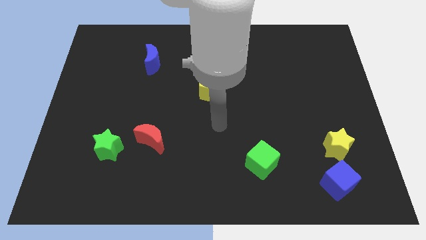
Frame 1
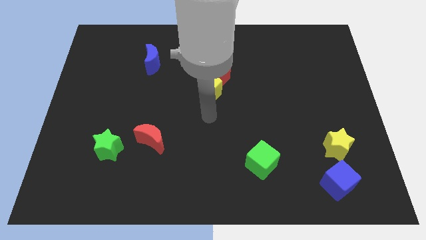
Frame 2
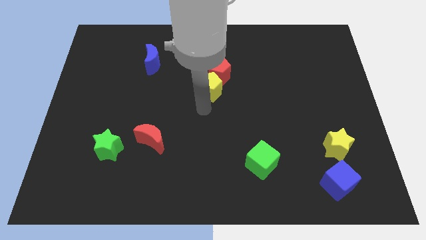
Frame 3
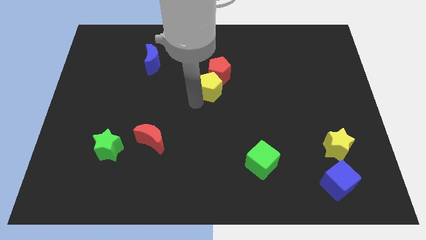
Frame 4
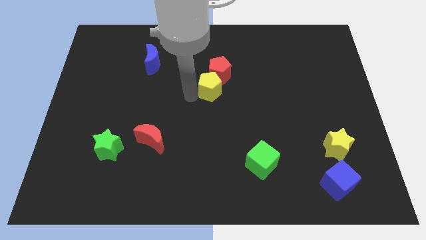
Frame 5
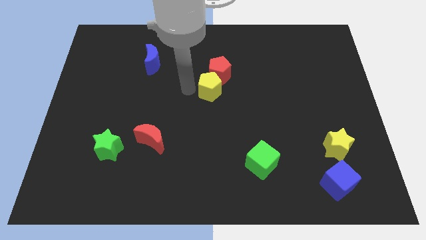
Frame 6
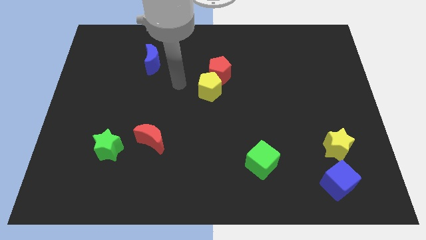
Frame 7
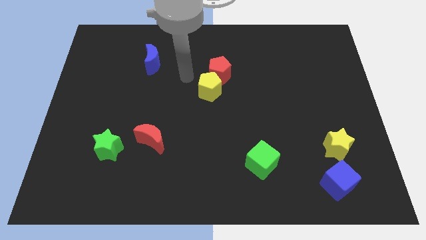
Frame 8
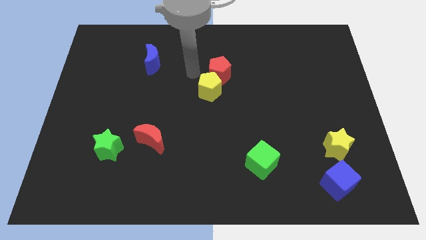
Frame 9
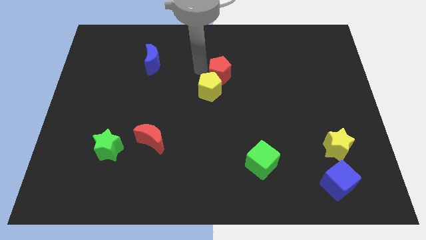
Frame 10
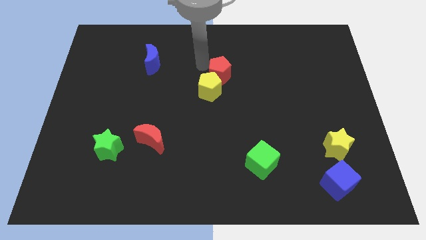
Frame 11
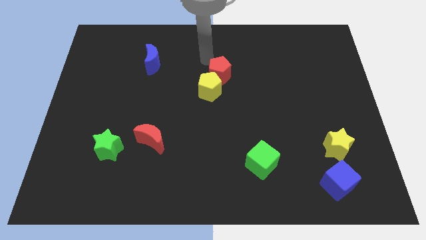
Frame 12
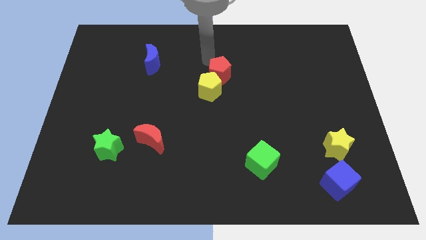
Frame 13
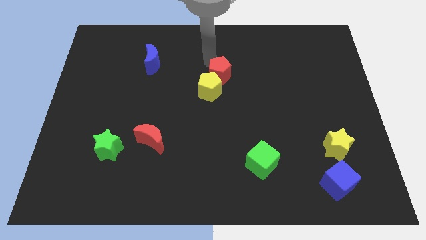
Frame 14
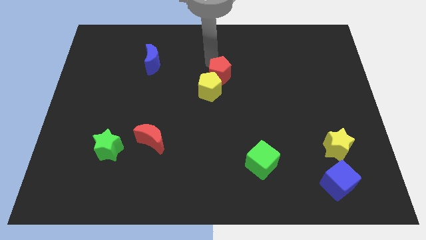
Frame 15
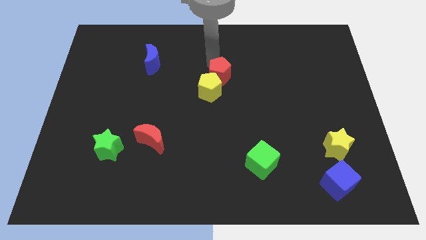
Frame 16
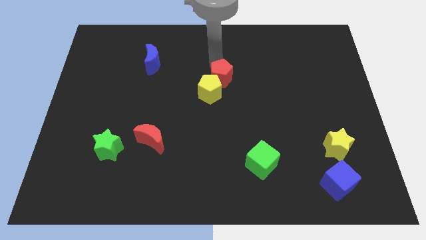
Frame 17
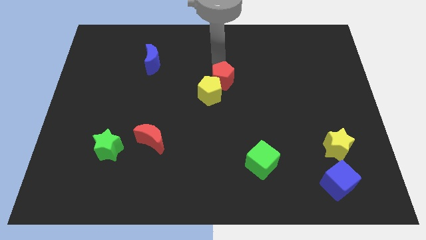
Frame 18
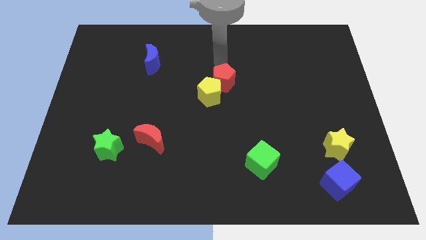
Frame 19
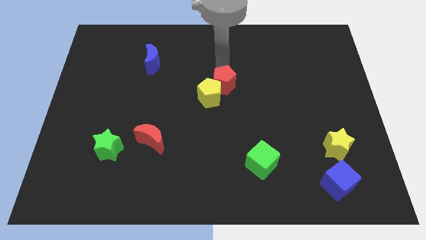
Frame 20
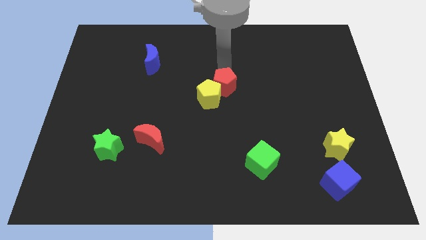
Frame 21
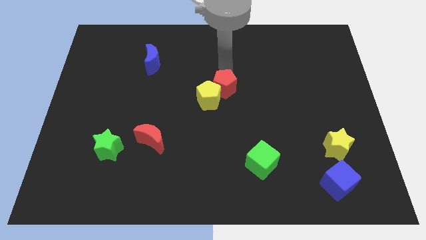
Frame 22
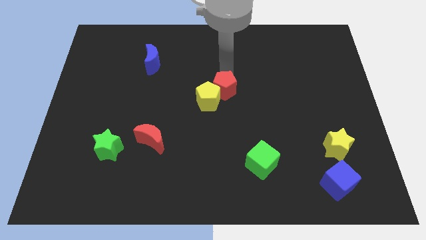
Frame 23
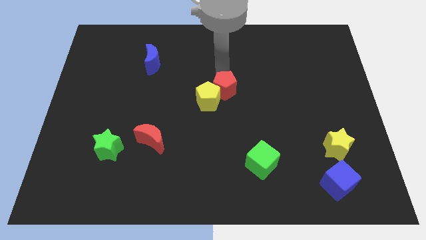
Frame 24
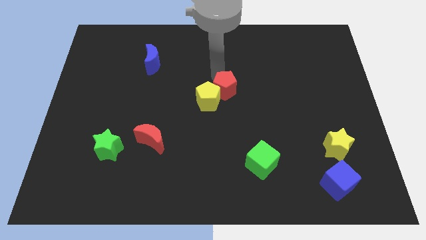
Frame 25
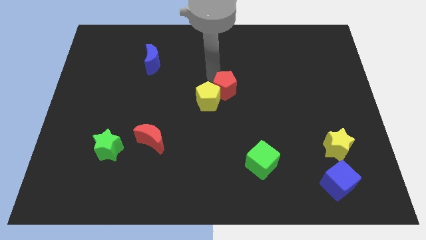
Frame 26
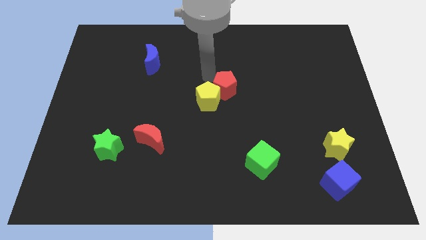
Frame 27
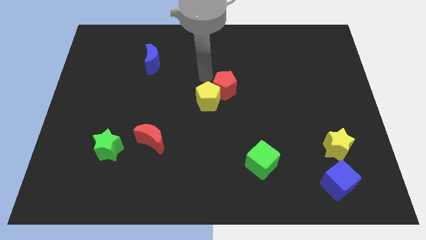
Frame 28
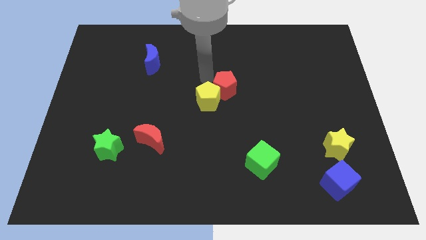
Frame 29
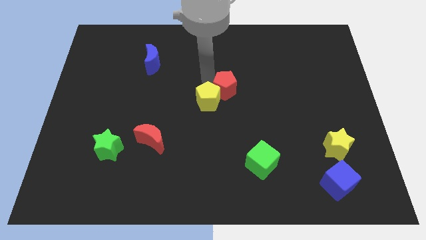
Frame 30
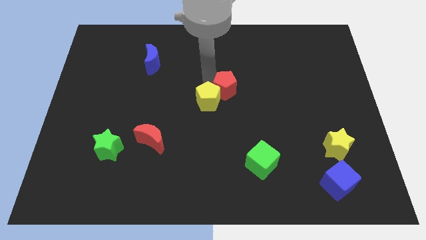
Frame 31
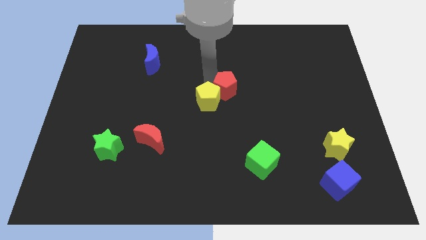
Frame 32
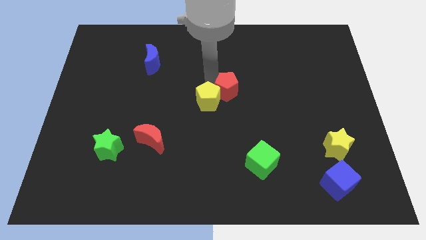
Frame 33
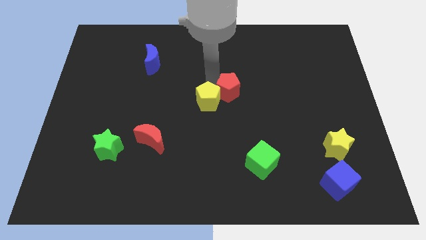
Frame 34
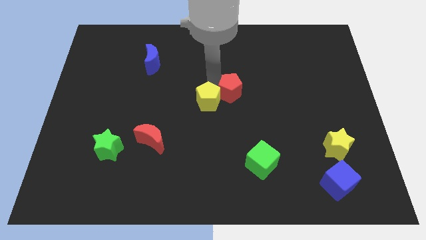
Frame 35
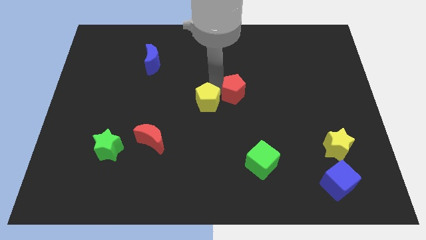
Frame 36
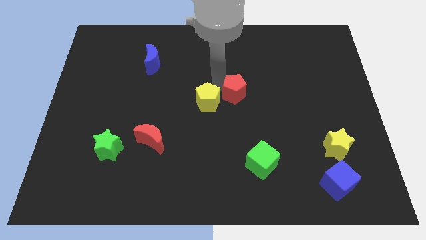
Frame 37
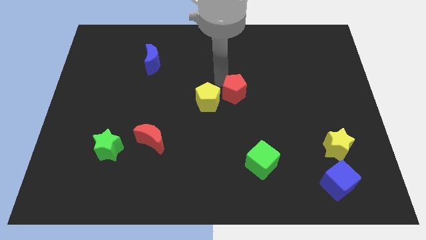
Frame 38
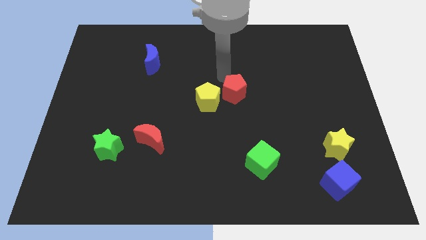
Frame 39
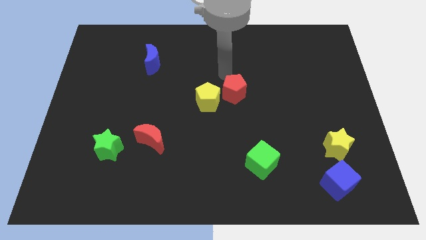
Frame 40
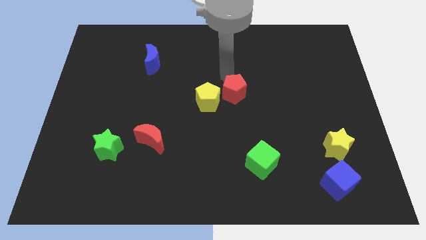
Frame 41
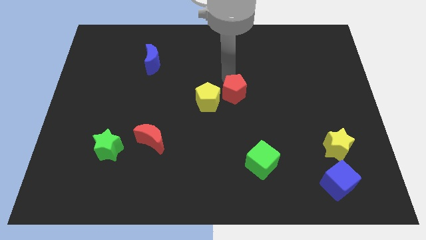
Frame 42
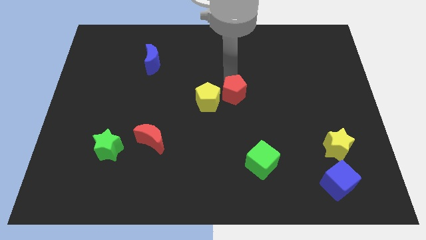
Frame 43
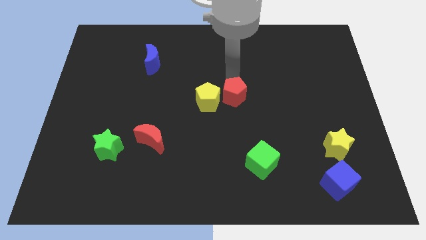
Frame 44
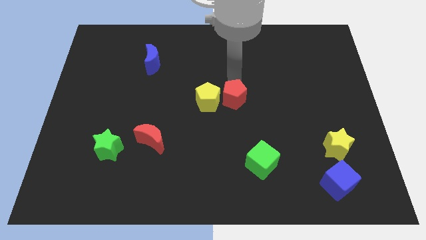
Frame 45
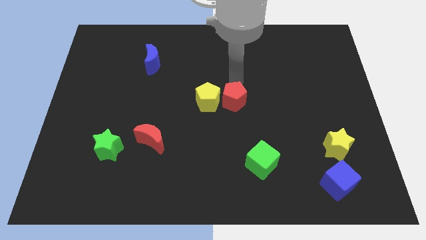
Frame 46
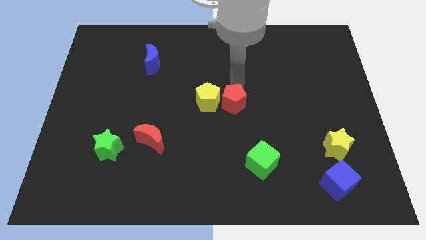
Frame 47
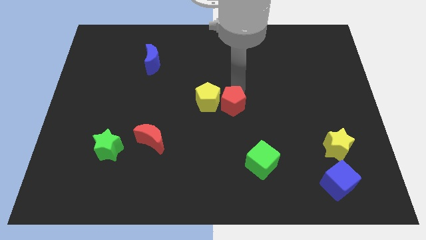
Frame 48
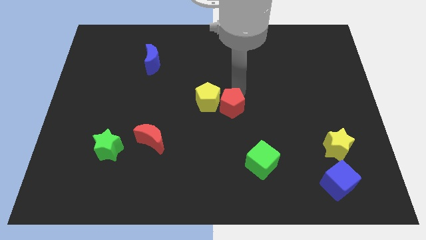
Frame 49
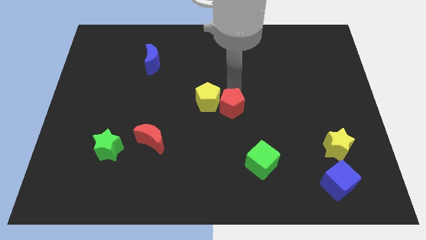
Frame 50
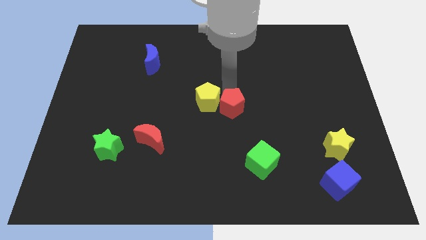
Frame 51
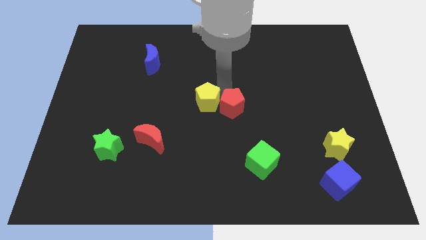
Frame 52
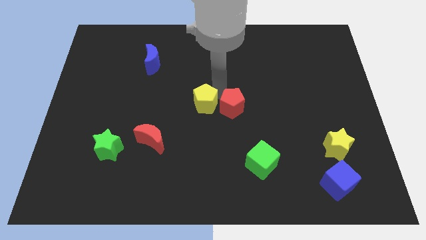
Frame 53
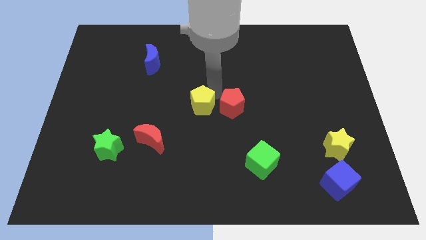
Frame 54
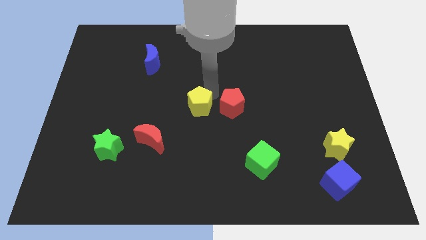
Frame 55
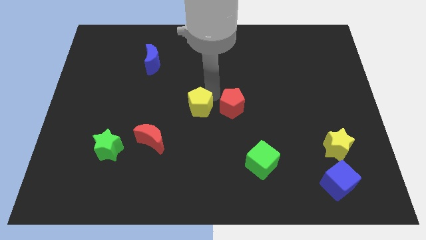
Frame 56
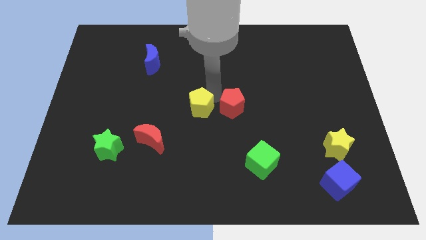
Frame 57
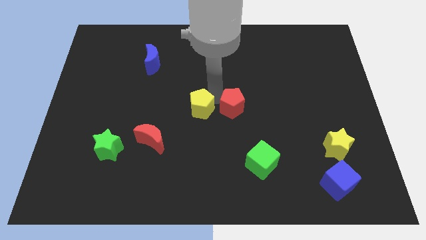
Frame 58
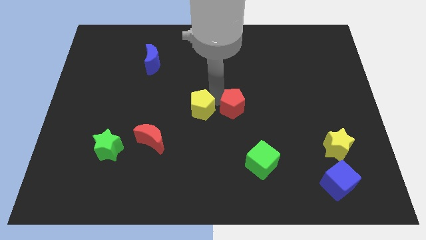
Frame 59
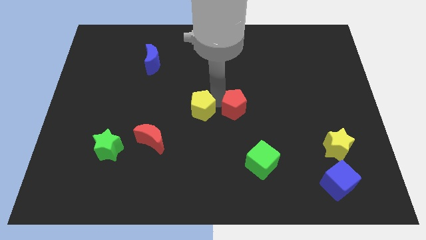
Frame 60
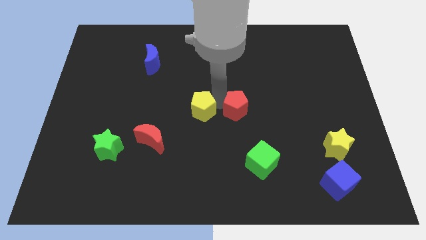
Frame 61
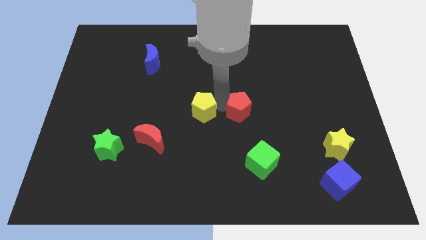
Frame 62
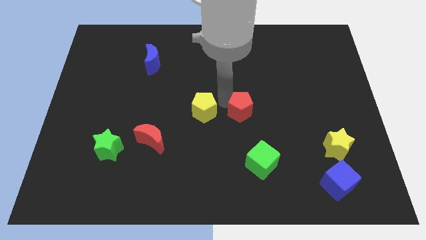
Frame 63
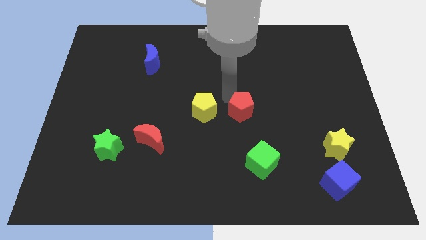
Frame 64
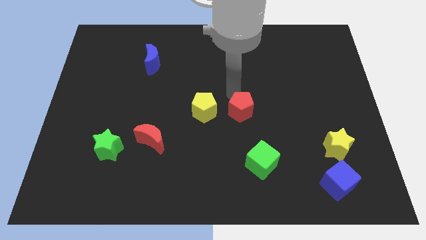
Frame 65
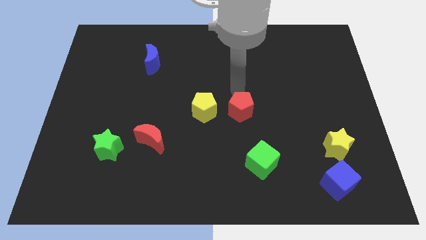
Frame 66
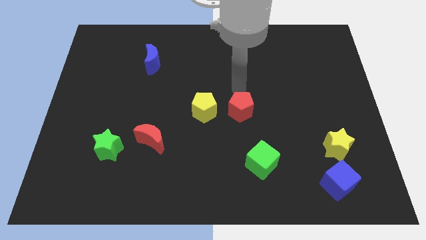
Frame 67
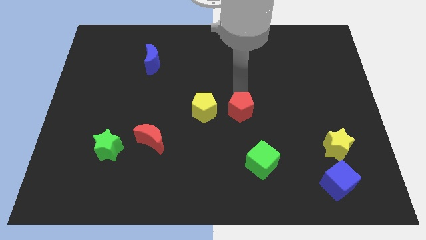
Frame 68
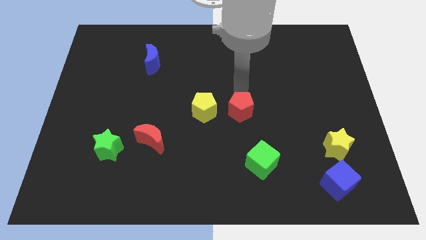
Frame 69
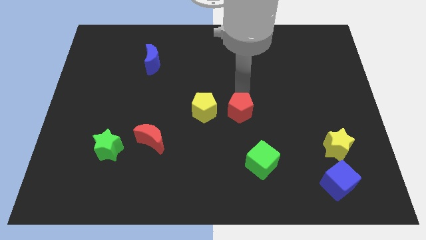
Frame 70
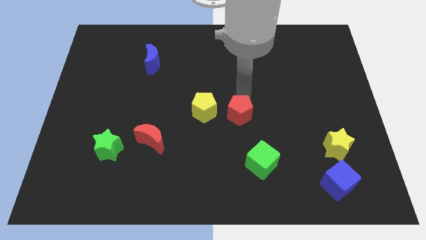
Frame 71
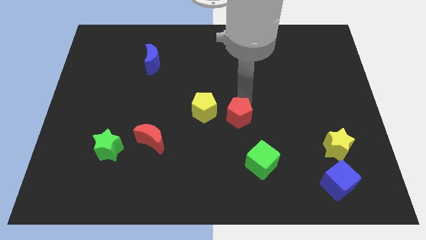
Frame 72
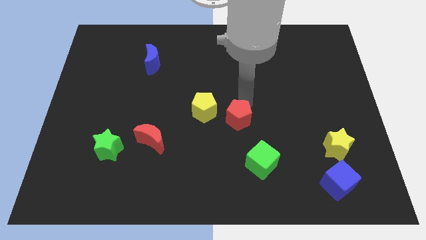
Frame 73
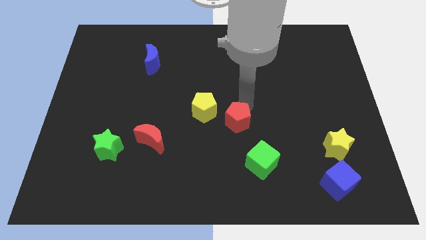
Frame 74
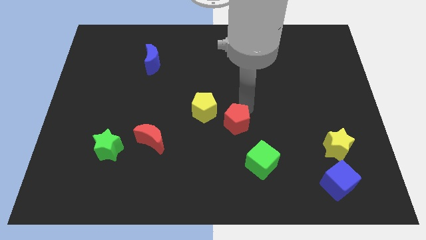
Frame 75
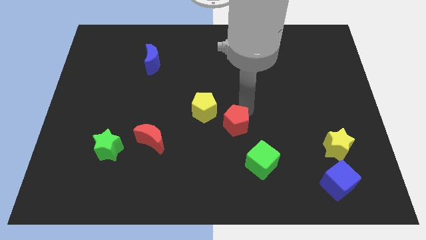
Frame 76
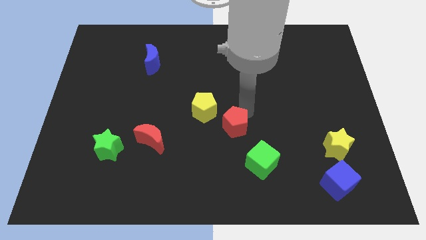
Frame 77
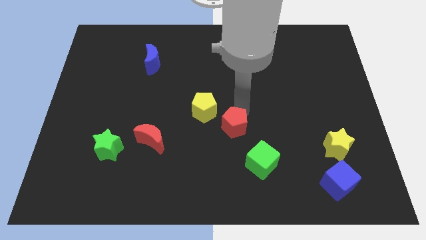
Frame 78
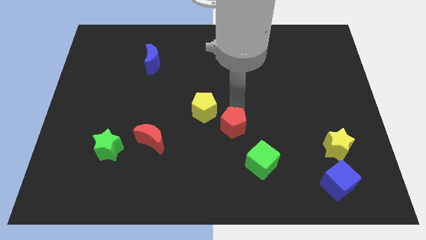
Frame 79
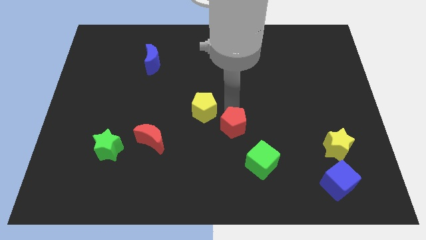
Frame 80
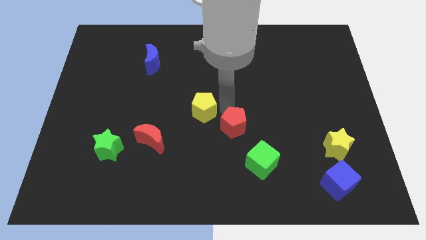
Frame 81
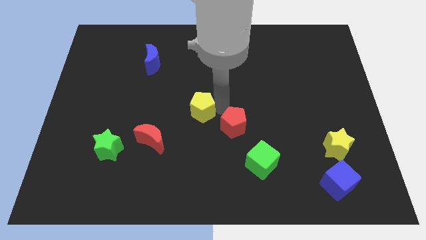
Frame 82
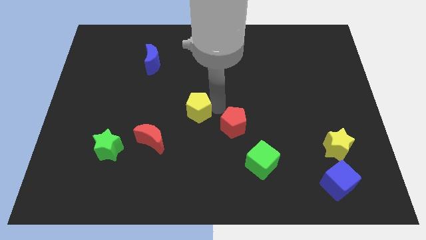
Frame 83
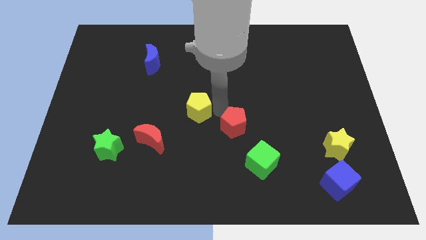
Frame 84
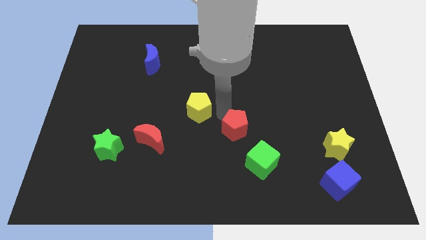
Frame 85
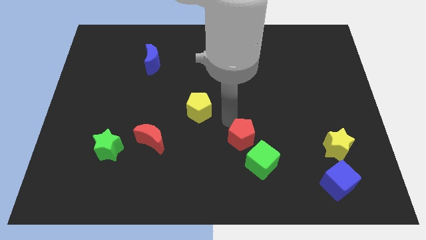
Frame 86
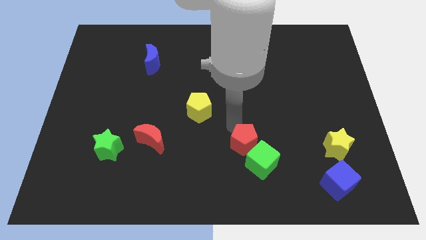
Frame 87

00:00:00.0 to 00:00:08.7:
move the red pentagon towards the green cube
